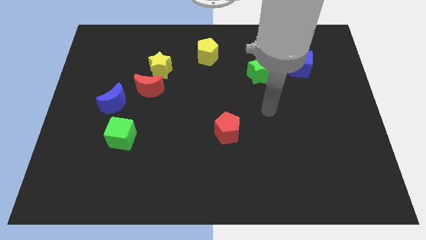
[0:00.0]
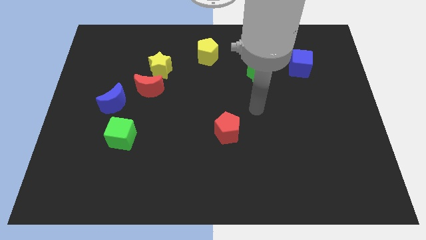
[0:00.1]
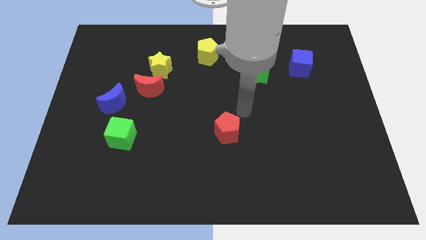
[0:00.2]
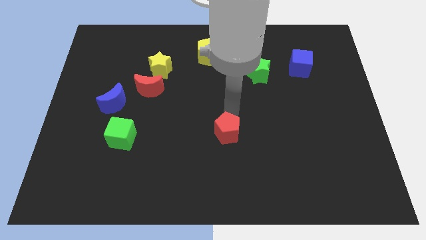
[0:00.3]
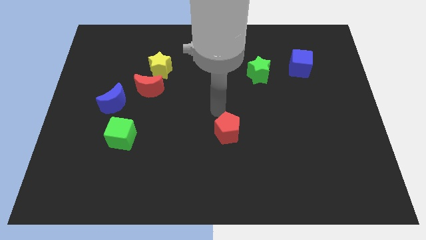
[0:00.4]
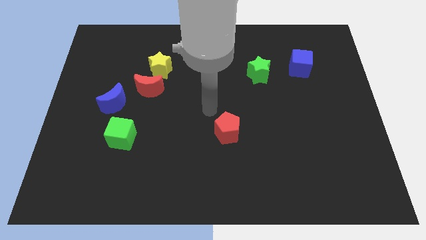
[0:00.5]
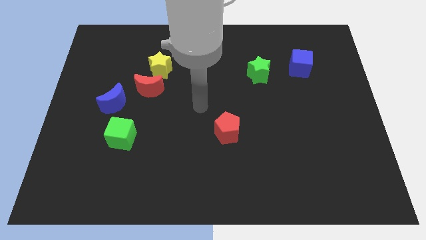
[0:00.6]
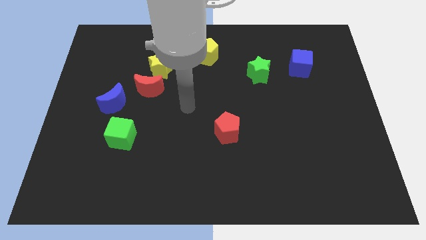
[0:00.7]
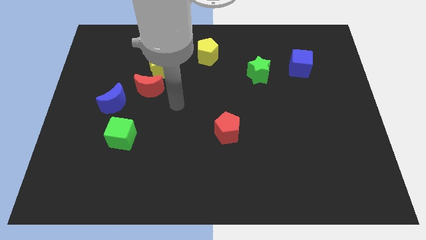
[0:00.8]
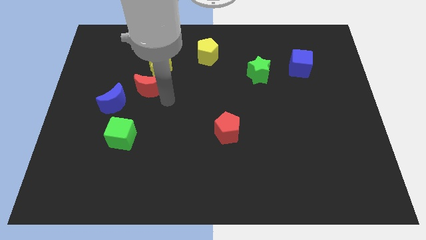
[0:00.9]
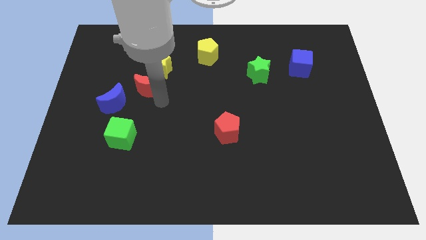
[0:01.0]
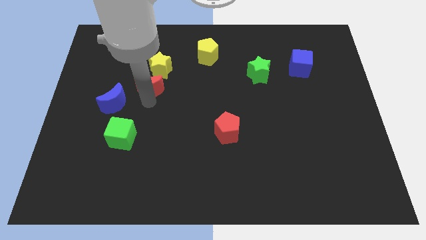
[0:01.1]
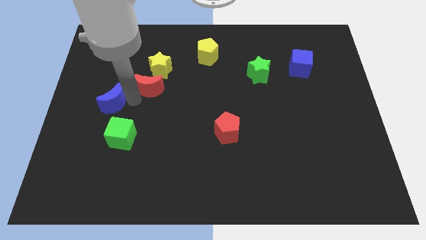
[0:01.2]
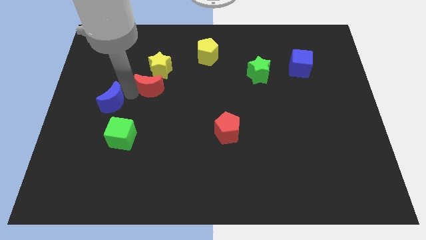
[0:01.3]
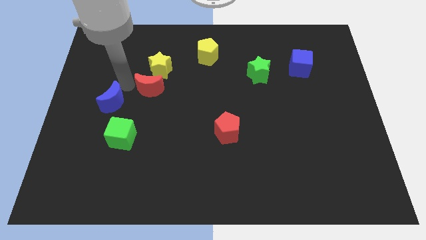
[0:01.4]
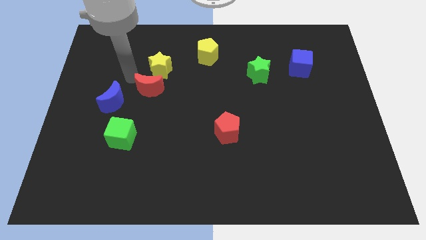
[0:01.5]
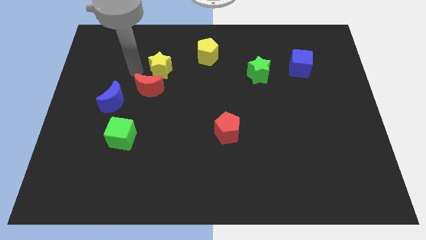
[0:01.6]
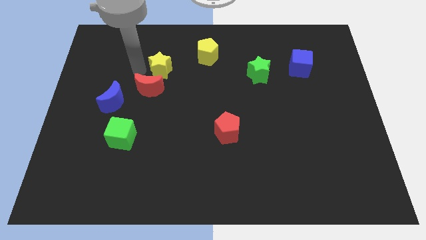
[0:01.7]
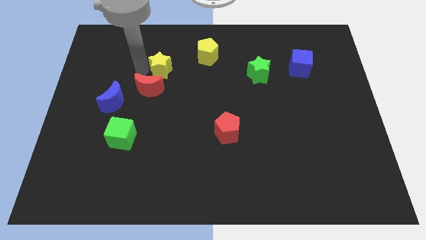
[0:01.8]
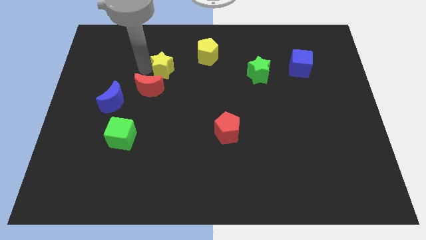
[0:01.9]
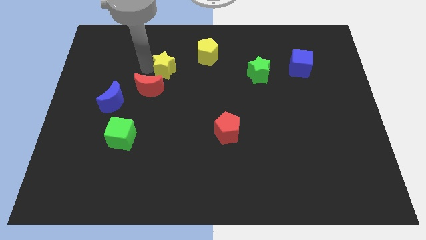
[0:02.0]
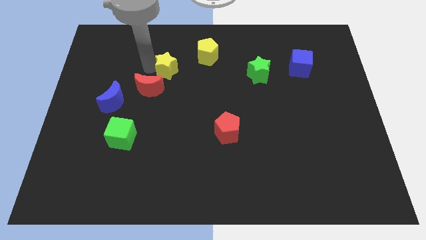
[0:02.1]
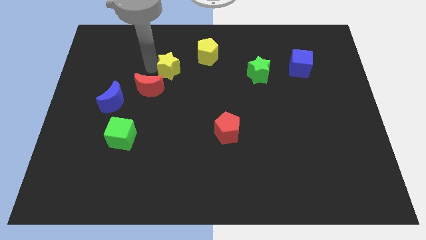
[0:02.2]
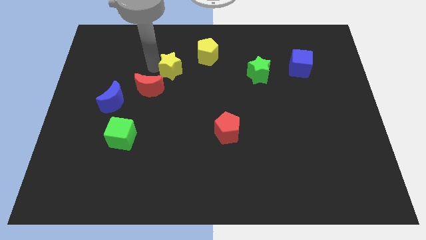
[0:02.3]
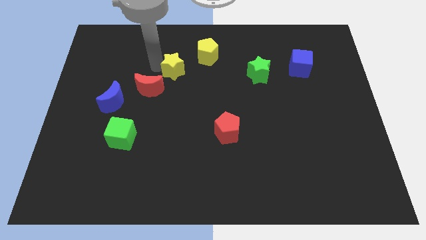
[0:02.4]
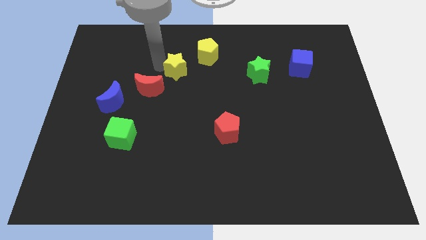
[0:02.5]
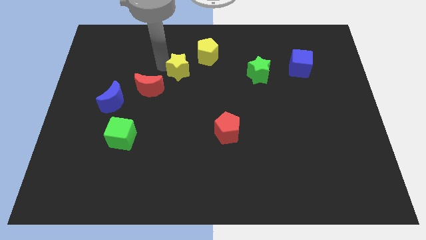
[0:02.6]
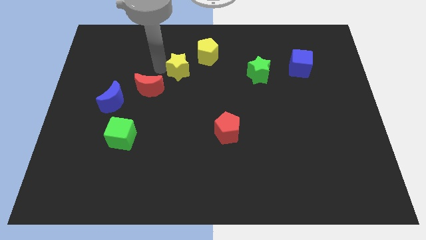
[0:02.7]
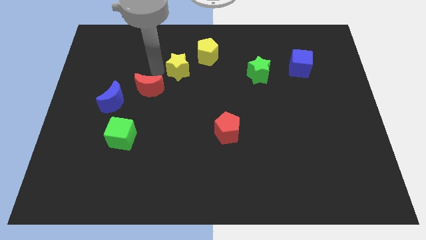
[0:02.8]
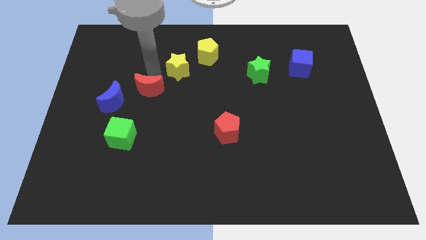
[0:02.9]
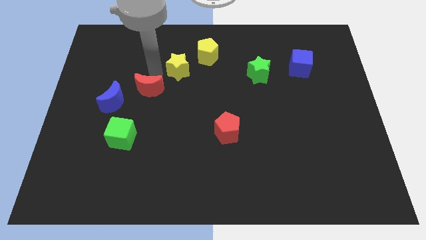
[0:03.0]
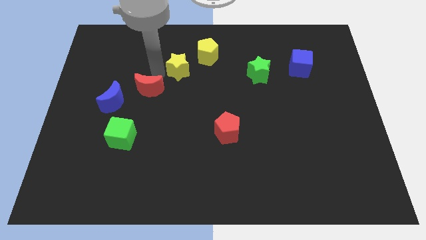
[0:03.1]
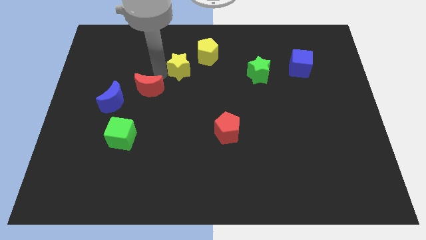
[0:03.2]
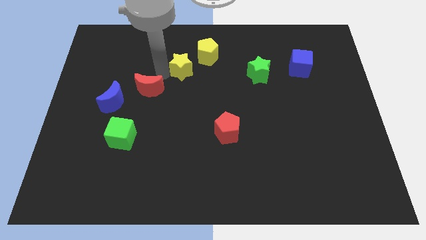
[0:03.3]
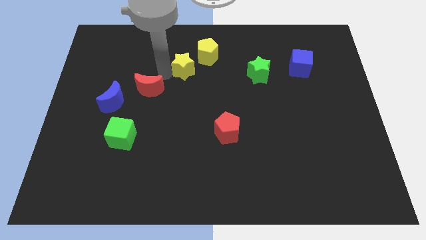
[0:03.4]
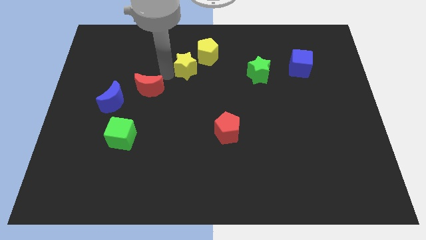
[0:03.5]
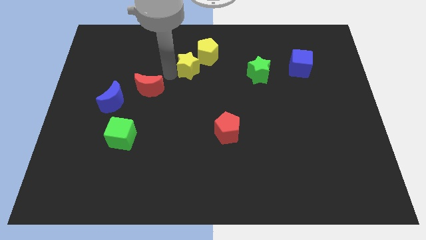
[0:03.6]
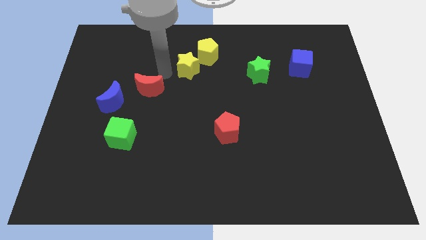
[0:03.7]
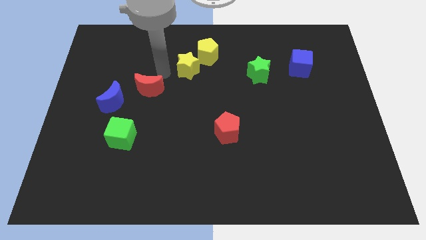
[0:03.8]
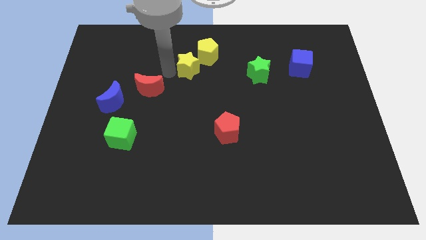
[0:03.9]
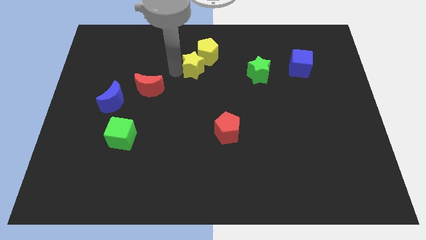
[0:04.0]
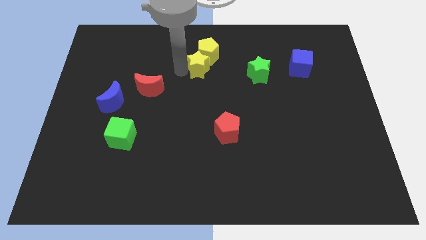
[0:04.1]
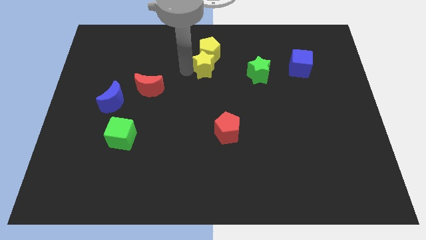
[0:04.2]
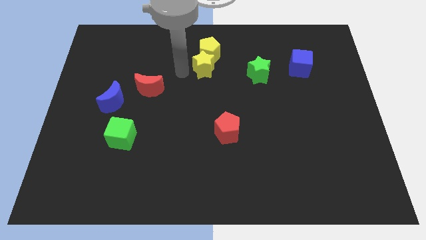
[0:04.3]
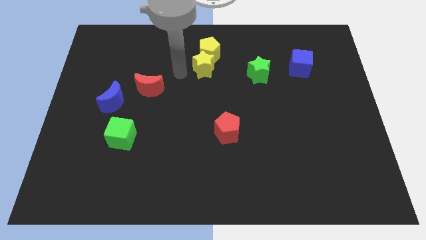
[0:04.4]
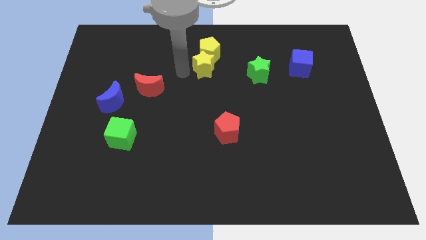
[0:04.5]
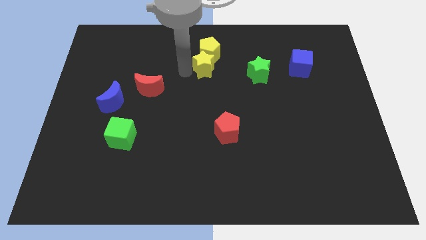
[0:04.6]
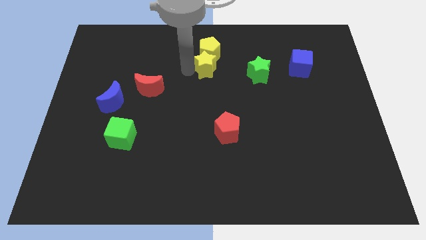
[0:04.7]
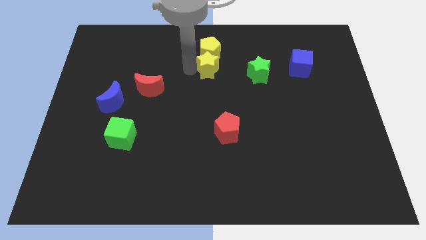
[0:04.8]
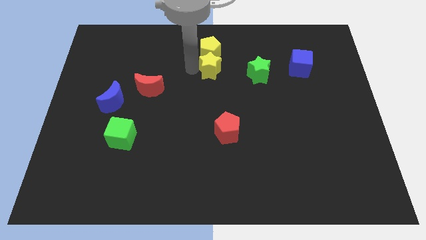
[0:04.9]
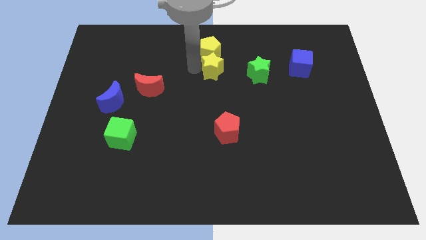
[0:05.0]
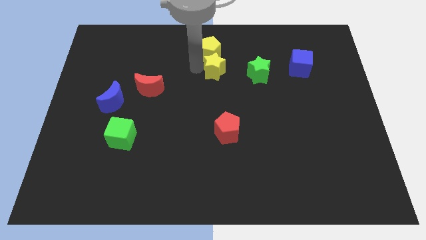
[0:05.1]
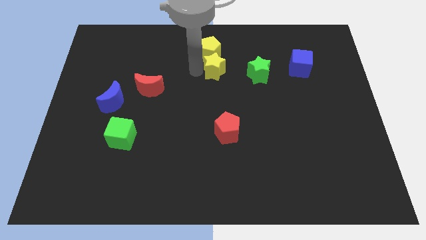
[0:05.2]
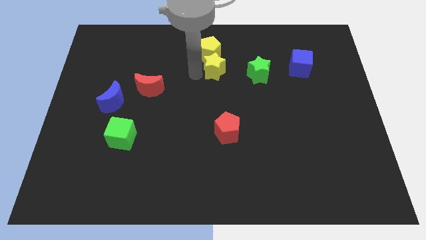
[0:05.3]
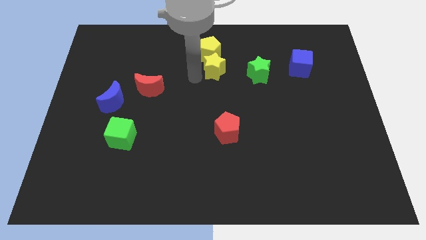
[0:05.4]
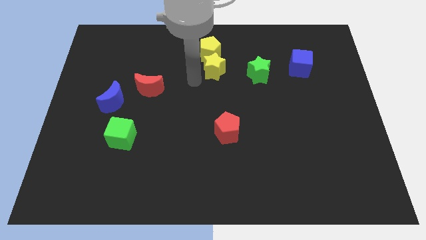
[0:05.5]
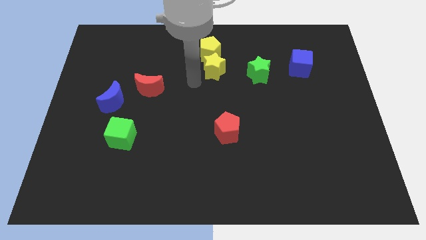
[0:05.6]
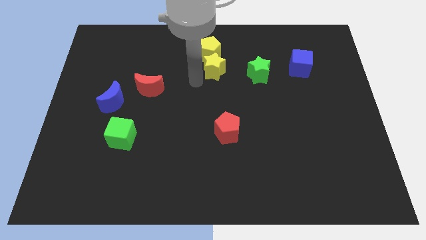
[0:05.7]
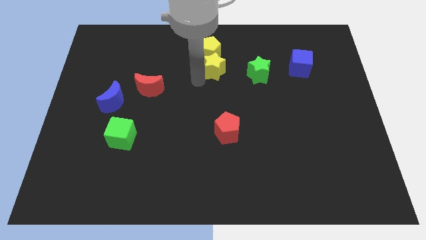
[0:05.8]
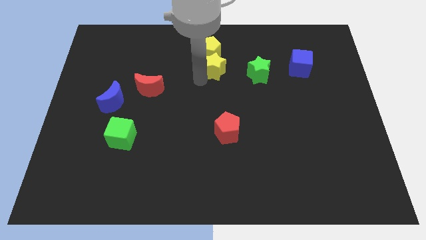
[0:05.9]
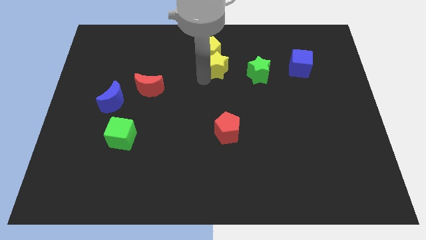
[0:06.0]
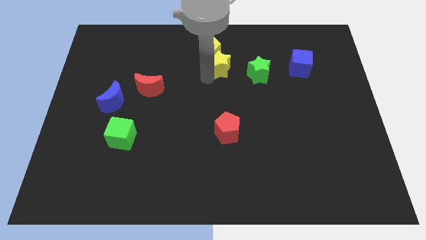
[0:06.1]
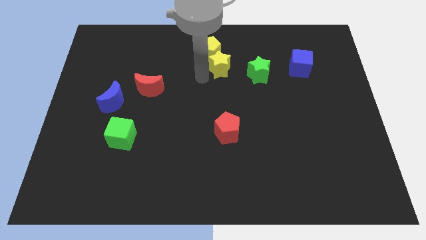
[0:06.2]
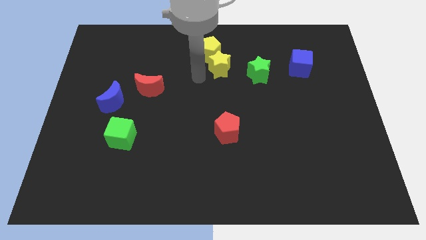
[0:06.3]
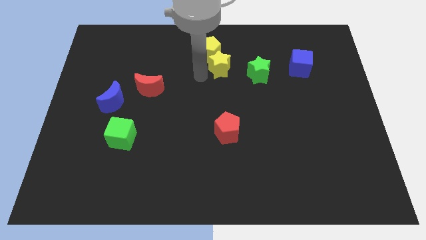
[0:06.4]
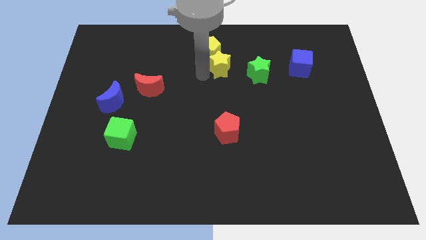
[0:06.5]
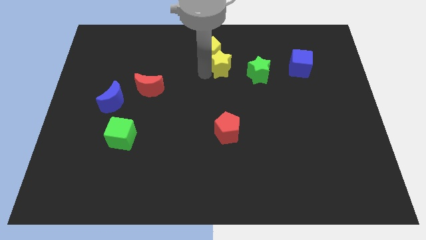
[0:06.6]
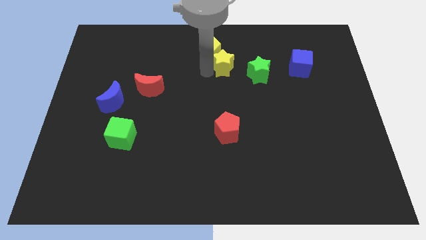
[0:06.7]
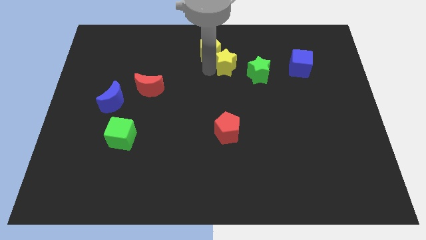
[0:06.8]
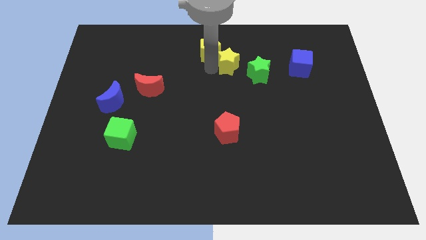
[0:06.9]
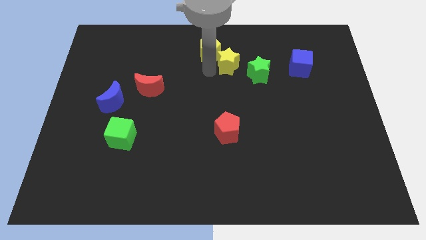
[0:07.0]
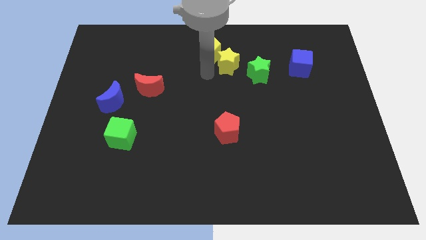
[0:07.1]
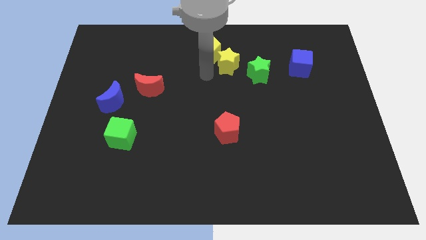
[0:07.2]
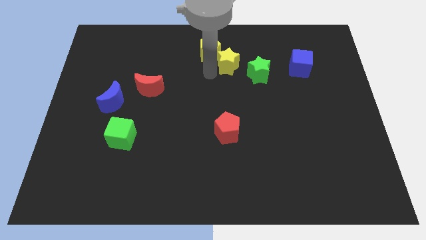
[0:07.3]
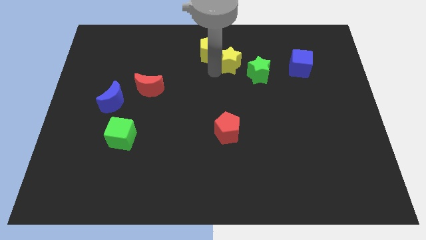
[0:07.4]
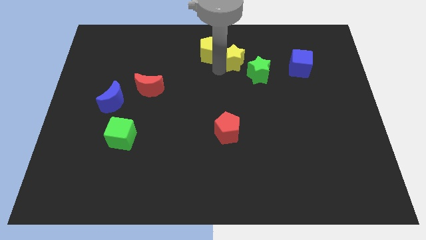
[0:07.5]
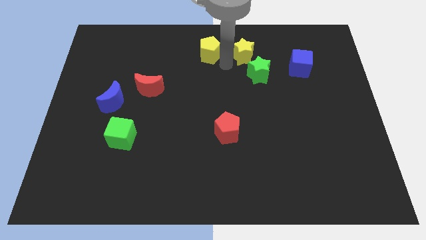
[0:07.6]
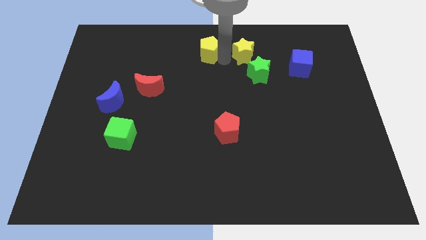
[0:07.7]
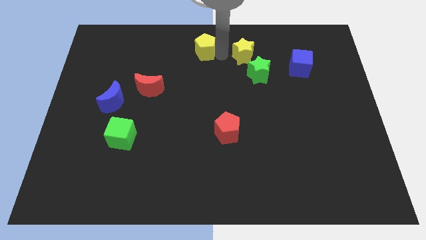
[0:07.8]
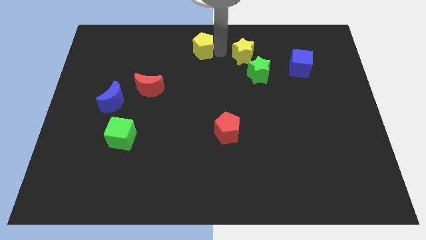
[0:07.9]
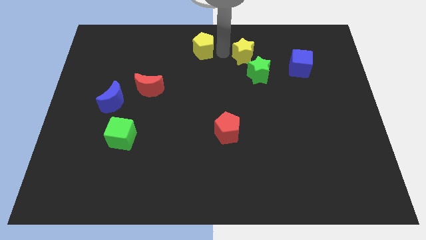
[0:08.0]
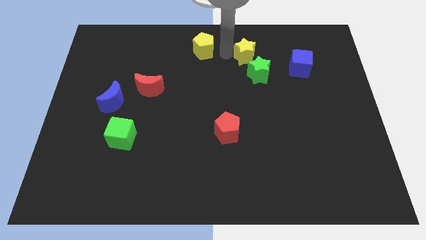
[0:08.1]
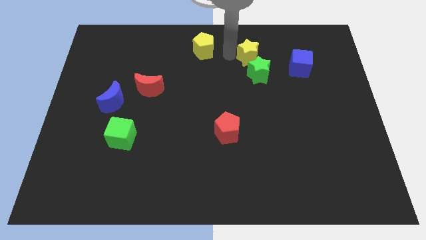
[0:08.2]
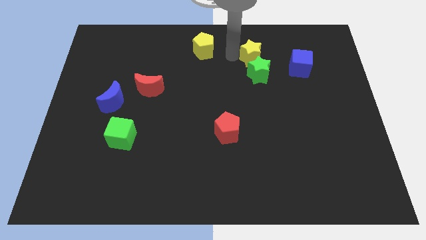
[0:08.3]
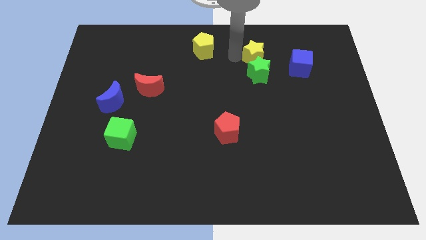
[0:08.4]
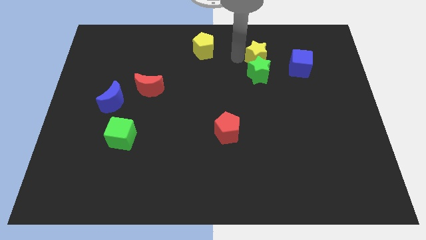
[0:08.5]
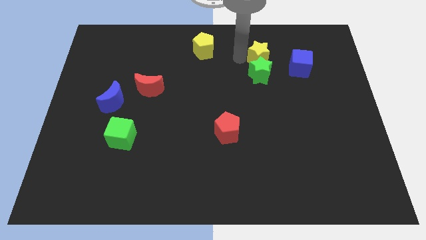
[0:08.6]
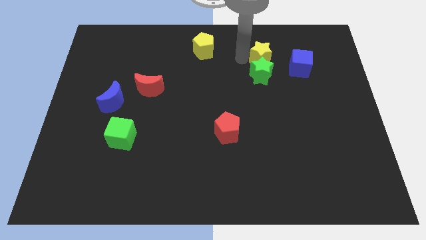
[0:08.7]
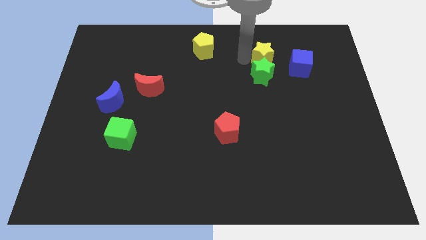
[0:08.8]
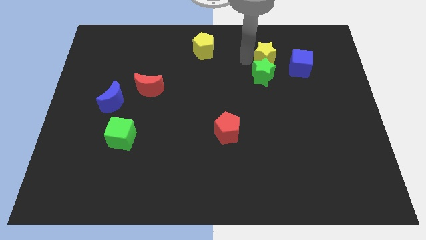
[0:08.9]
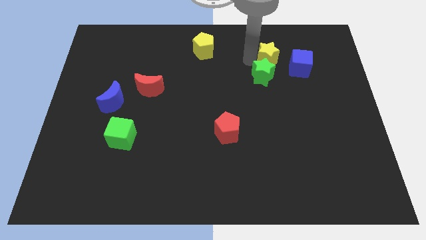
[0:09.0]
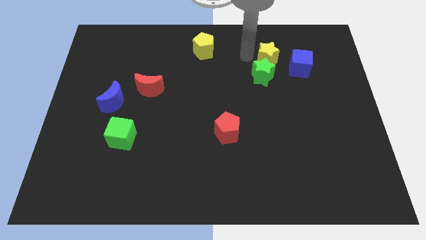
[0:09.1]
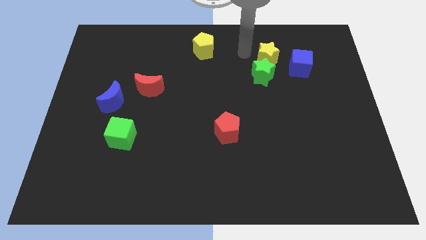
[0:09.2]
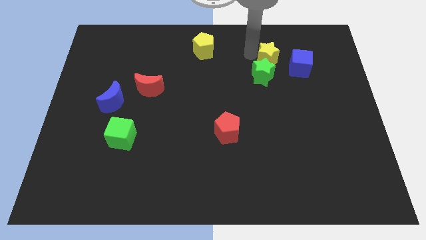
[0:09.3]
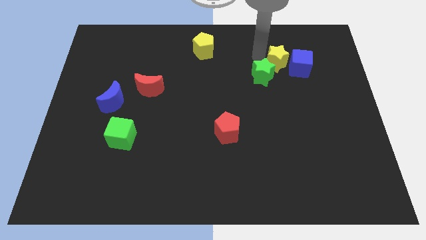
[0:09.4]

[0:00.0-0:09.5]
put the yellow star towards the blue cube
